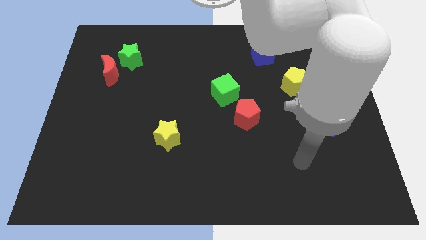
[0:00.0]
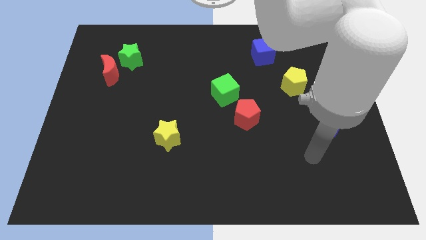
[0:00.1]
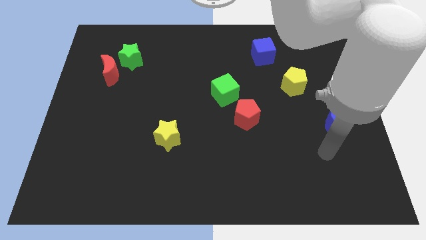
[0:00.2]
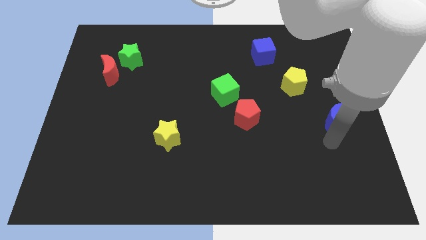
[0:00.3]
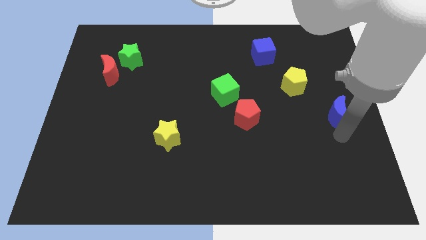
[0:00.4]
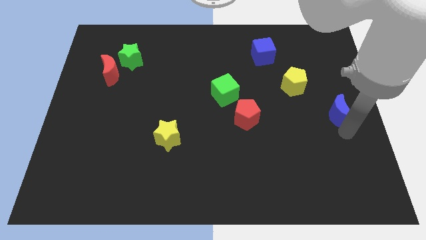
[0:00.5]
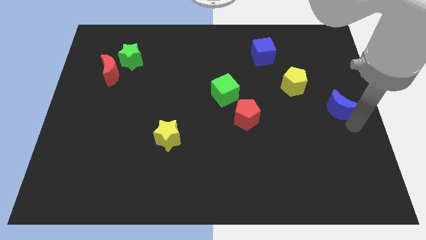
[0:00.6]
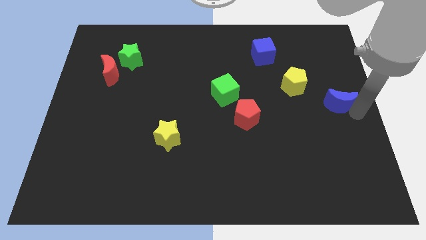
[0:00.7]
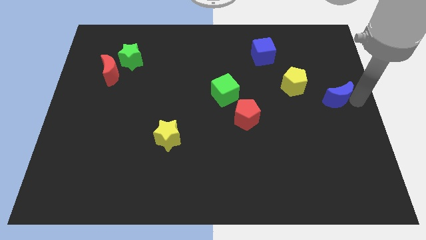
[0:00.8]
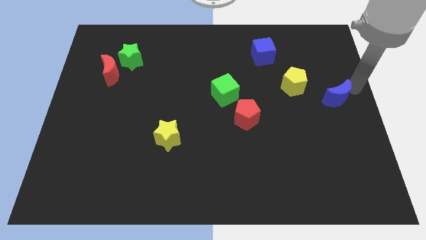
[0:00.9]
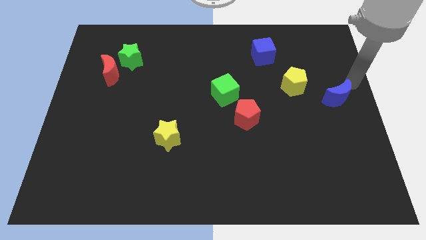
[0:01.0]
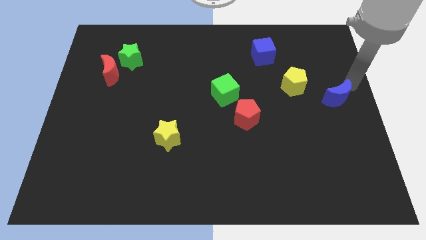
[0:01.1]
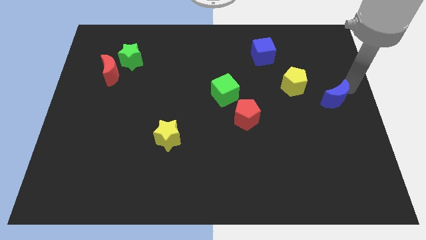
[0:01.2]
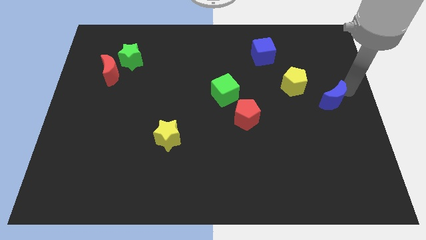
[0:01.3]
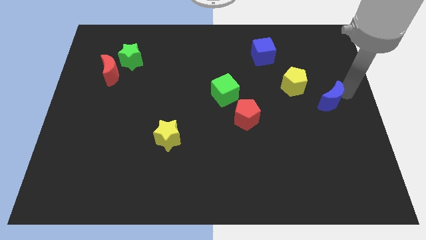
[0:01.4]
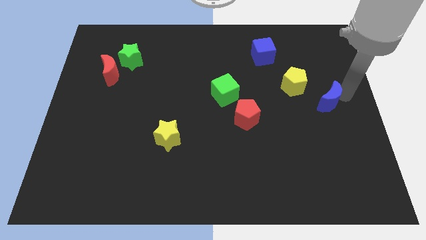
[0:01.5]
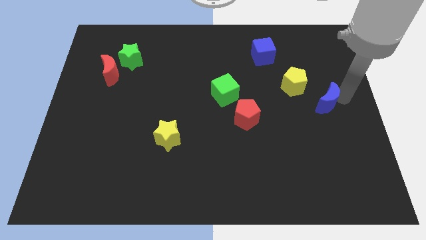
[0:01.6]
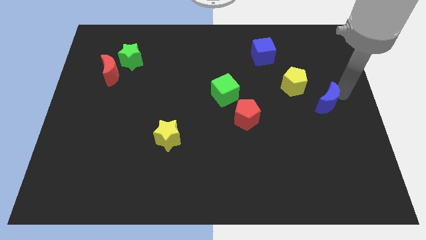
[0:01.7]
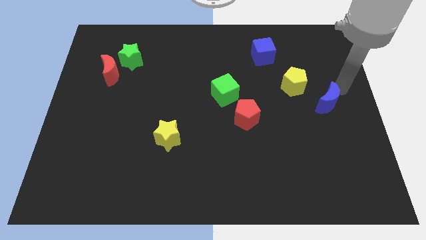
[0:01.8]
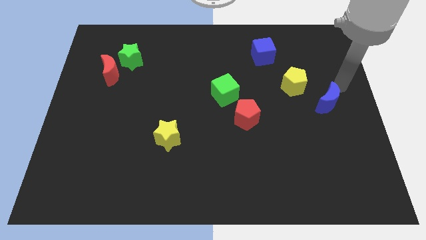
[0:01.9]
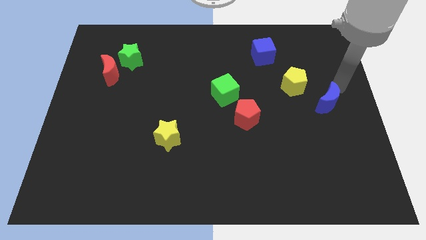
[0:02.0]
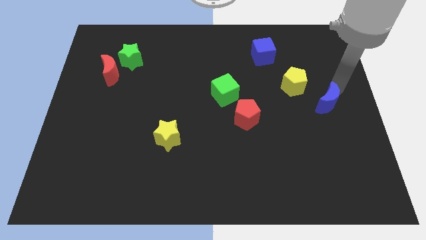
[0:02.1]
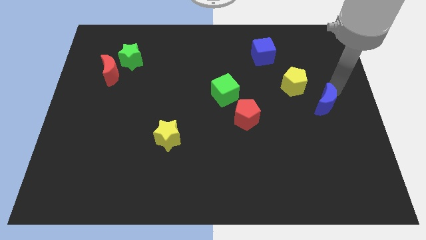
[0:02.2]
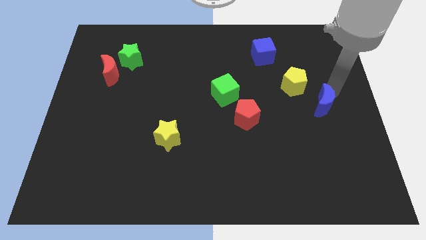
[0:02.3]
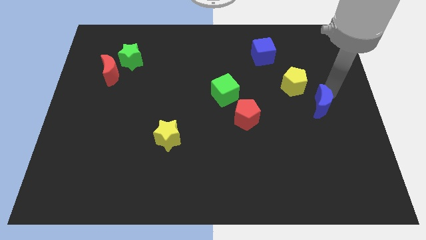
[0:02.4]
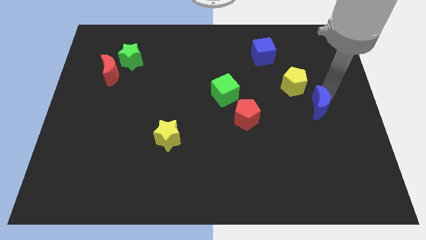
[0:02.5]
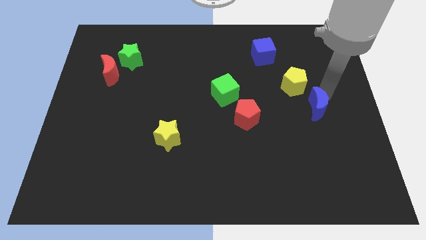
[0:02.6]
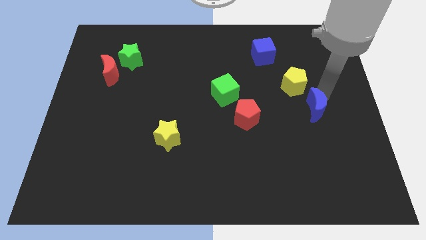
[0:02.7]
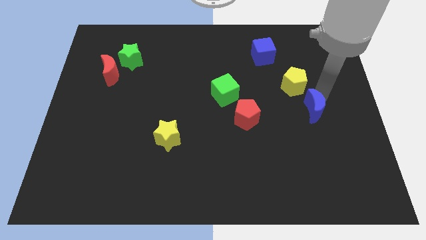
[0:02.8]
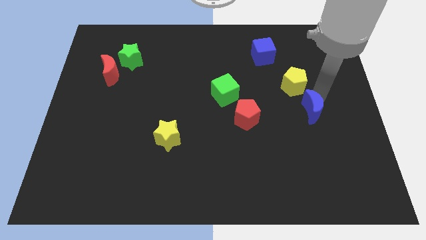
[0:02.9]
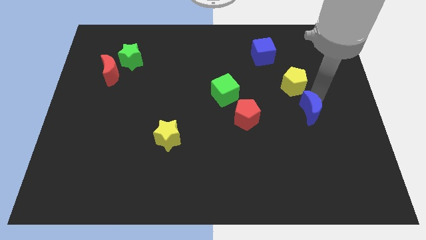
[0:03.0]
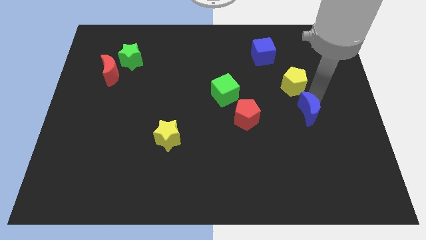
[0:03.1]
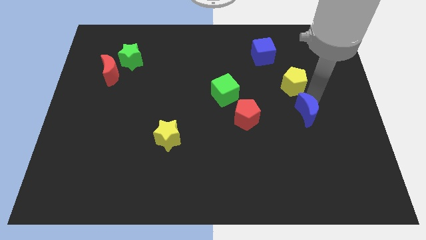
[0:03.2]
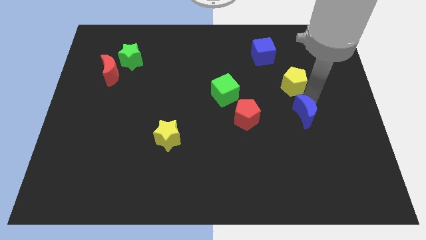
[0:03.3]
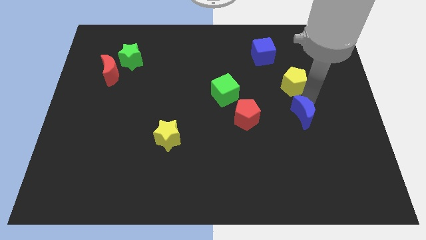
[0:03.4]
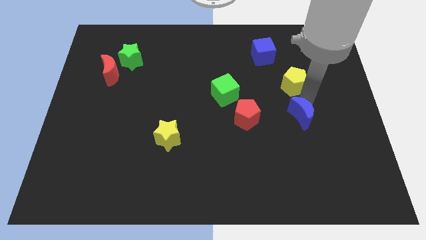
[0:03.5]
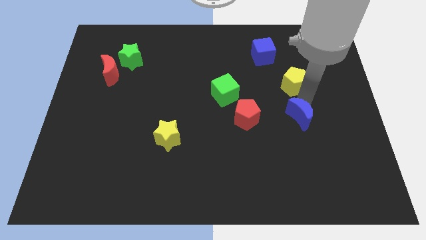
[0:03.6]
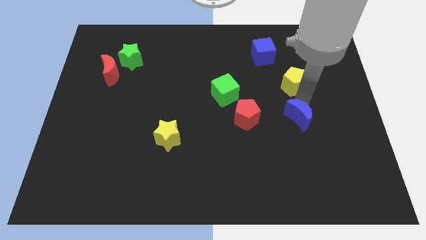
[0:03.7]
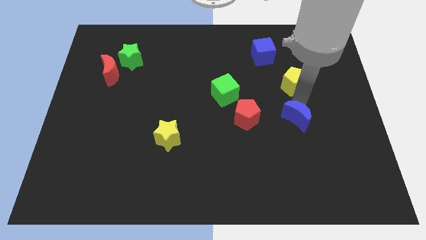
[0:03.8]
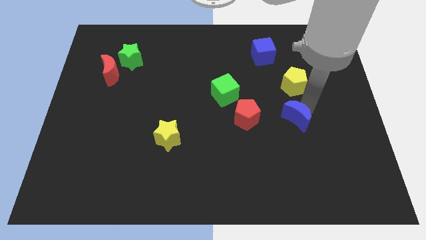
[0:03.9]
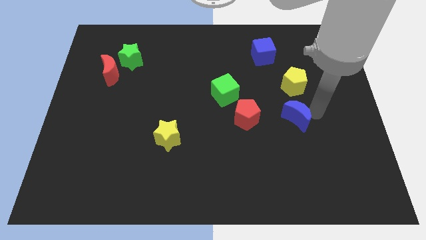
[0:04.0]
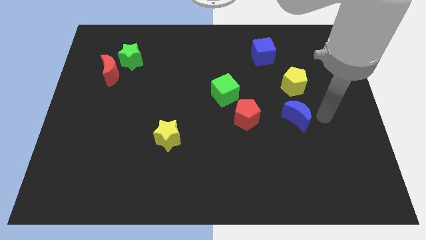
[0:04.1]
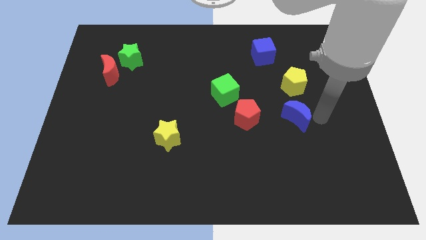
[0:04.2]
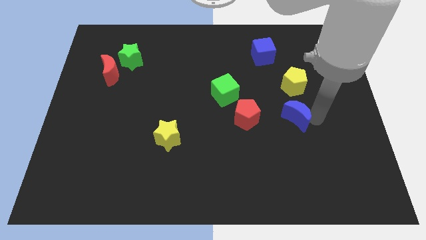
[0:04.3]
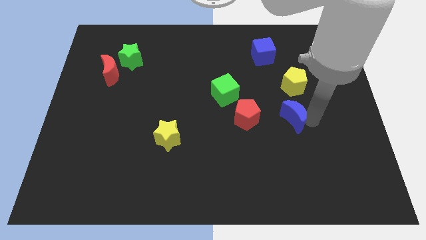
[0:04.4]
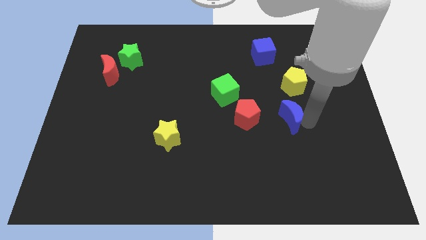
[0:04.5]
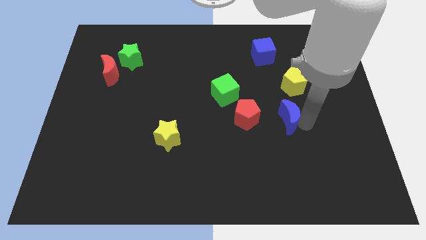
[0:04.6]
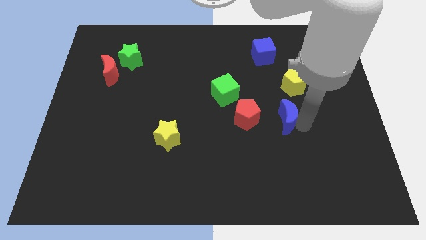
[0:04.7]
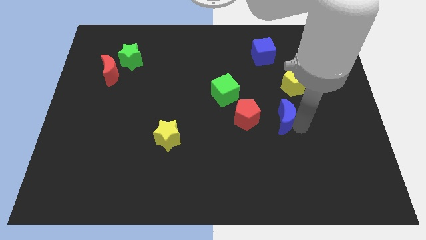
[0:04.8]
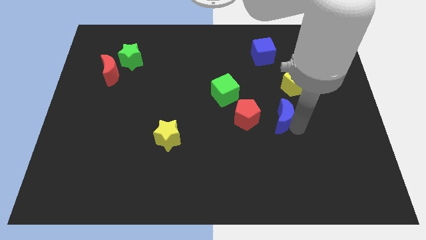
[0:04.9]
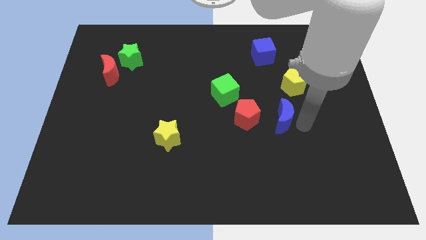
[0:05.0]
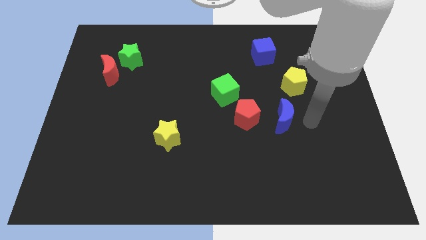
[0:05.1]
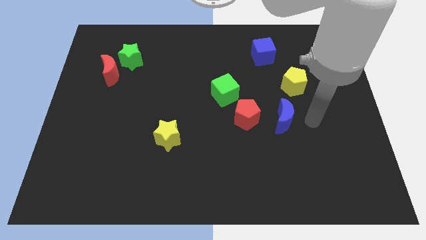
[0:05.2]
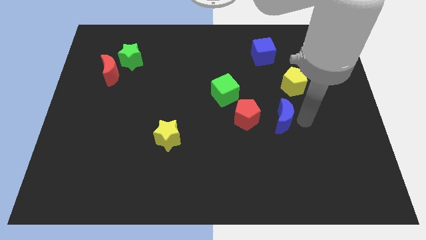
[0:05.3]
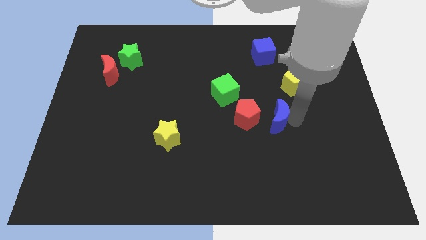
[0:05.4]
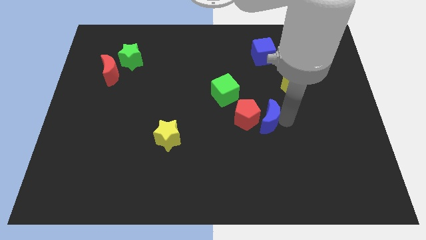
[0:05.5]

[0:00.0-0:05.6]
put the blue moon towards the red pentagon

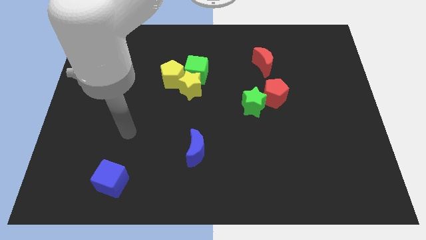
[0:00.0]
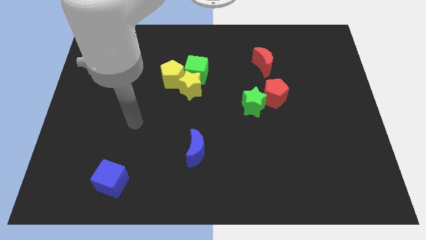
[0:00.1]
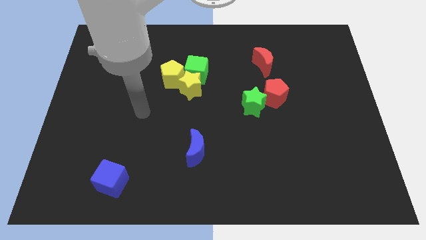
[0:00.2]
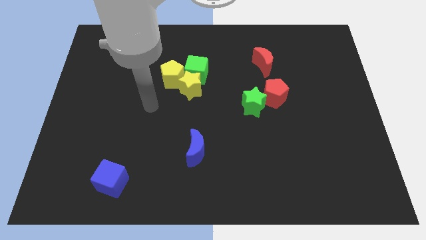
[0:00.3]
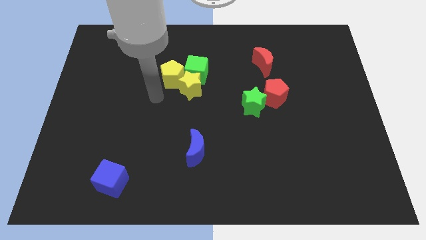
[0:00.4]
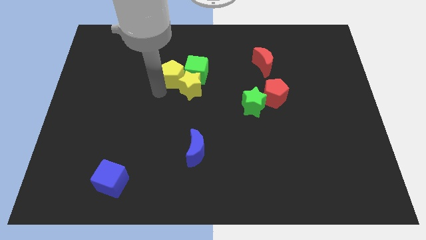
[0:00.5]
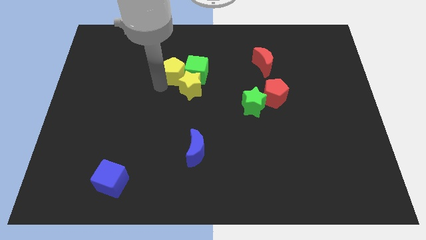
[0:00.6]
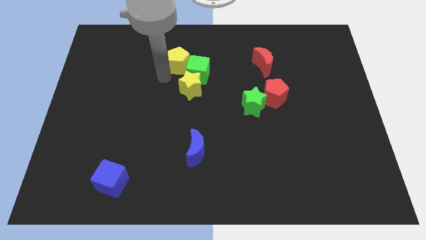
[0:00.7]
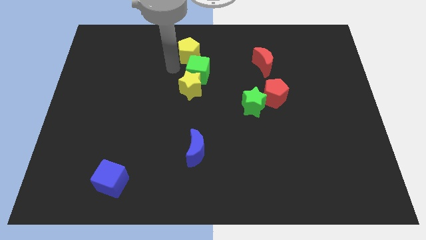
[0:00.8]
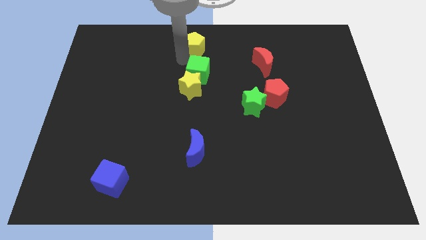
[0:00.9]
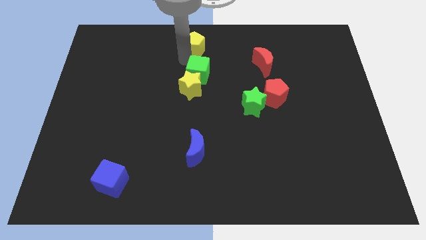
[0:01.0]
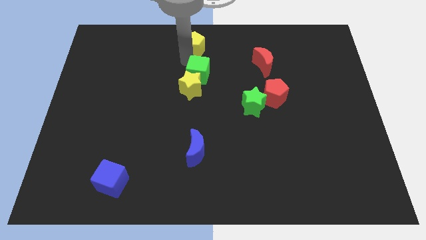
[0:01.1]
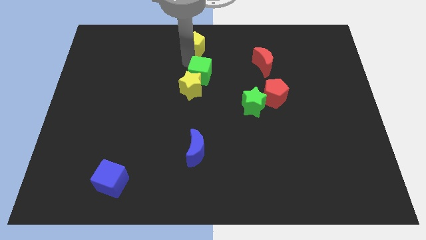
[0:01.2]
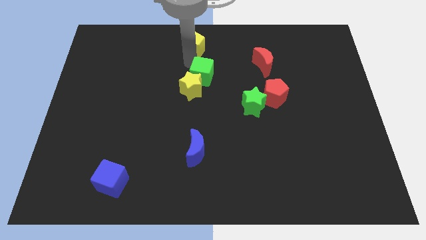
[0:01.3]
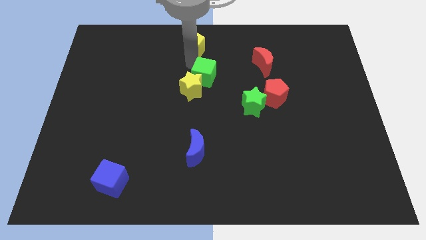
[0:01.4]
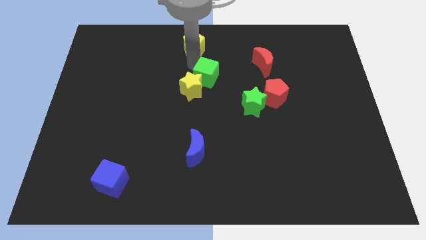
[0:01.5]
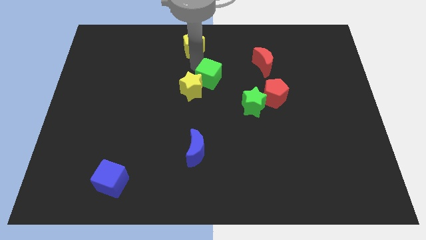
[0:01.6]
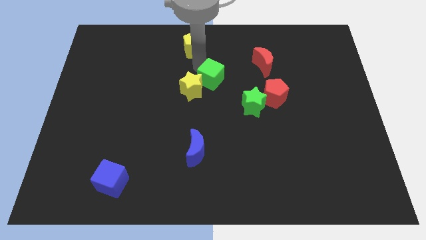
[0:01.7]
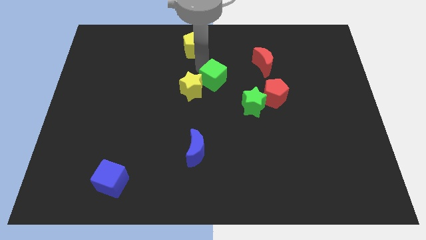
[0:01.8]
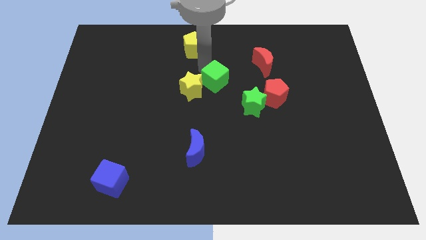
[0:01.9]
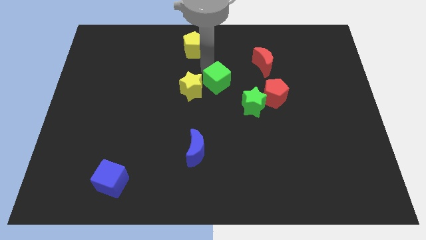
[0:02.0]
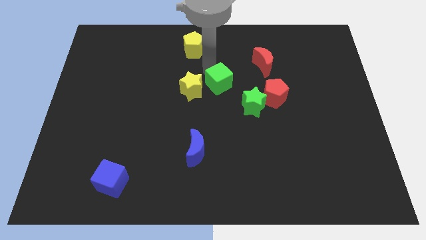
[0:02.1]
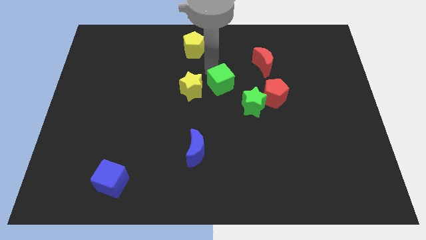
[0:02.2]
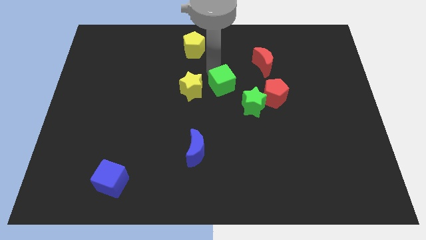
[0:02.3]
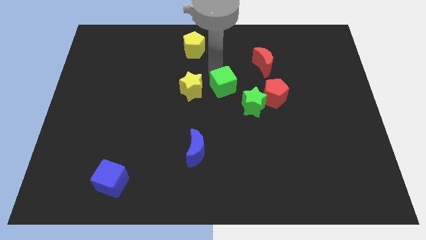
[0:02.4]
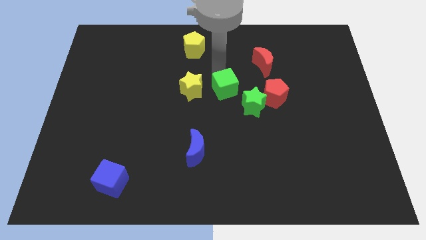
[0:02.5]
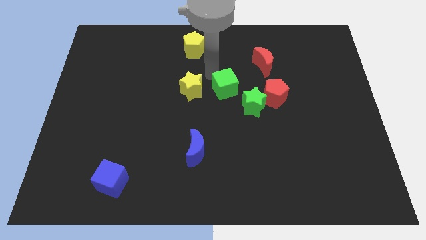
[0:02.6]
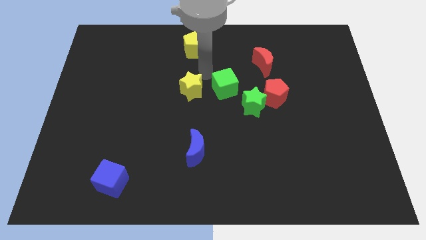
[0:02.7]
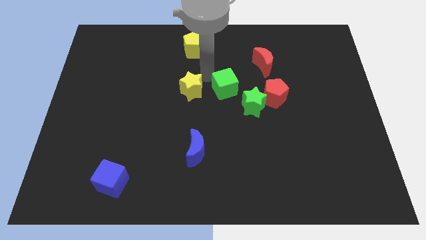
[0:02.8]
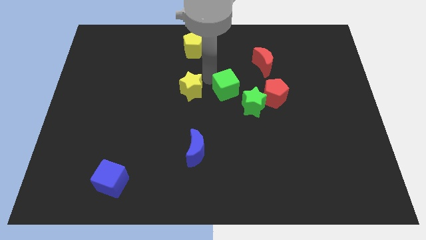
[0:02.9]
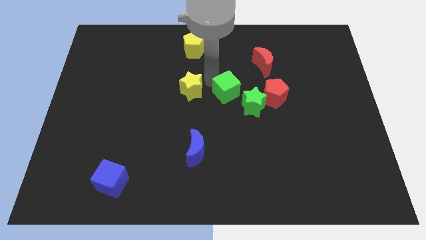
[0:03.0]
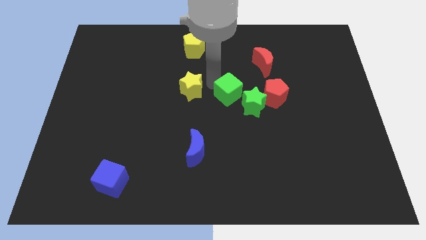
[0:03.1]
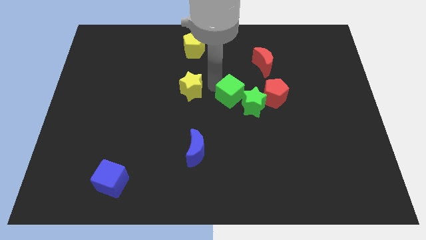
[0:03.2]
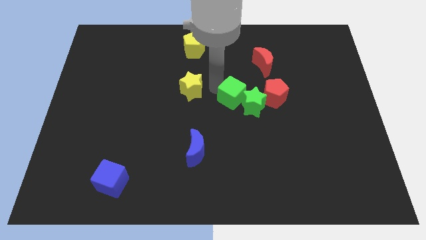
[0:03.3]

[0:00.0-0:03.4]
slide the green cube towards the green star
